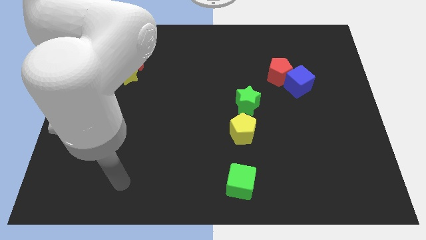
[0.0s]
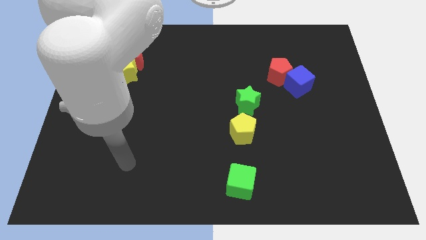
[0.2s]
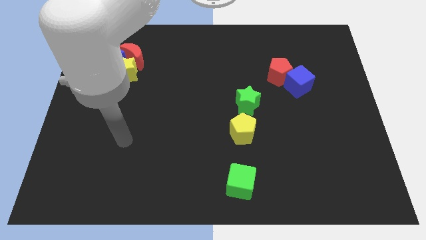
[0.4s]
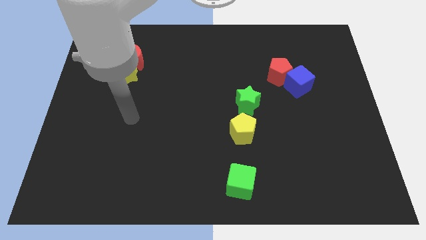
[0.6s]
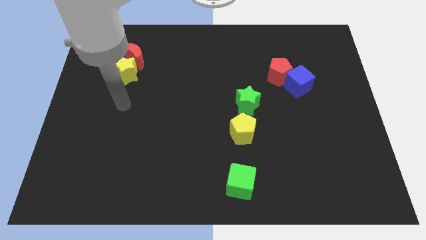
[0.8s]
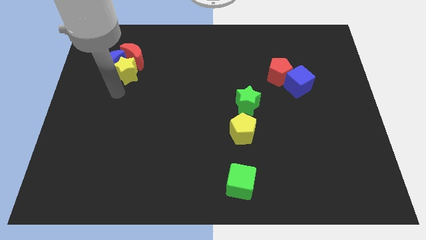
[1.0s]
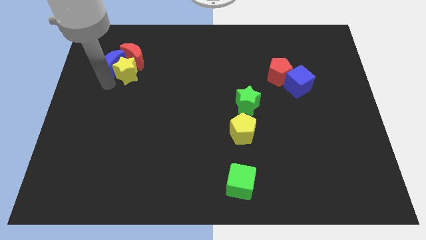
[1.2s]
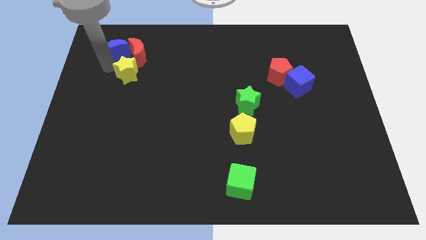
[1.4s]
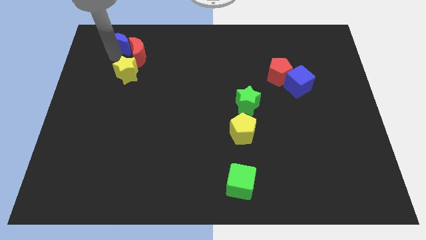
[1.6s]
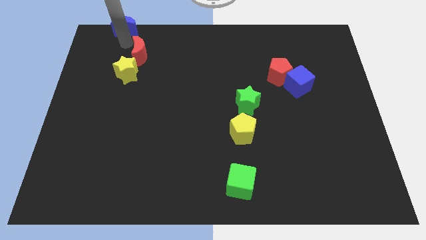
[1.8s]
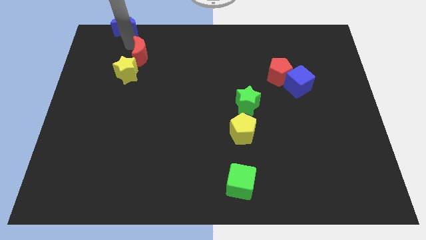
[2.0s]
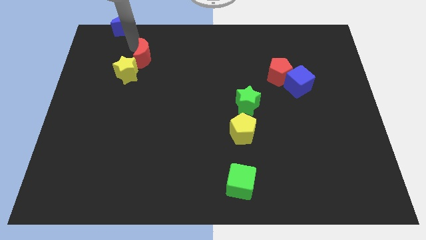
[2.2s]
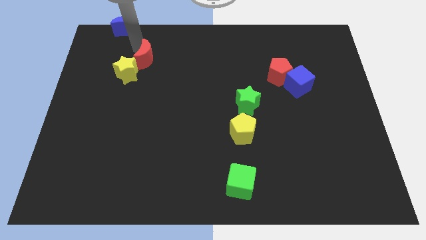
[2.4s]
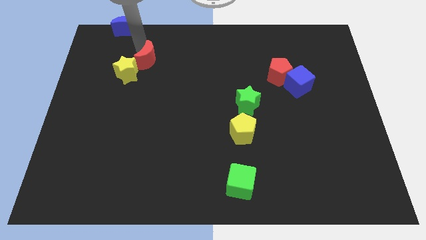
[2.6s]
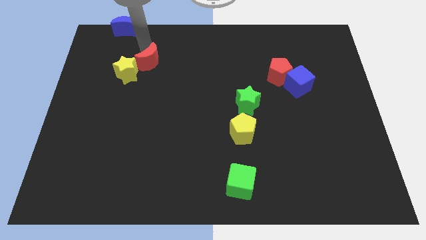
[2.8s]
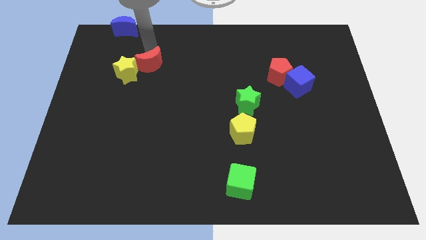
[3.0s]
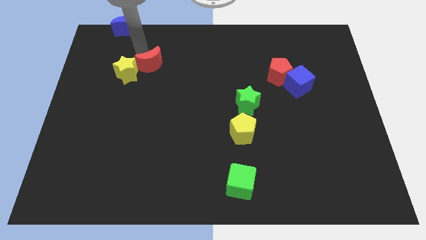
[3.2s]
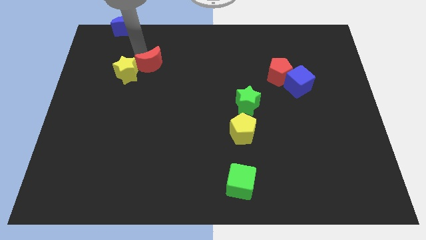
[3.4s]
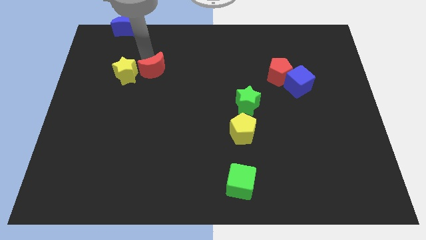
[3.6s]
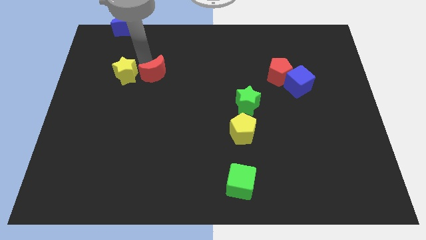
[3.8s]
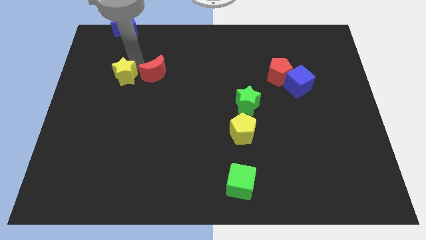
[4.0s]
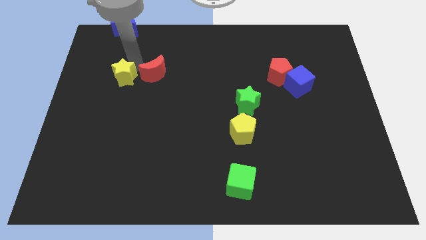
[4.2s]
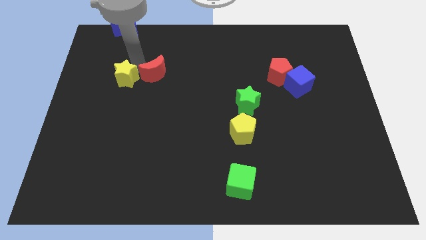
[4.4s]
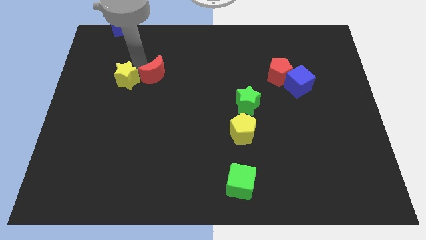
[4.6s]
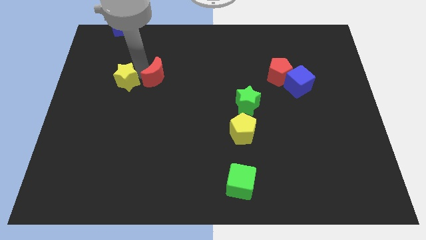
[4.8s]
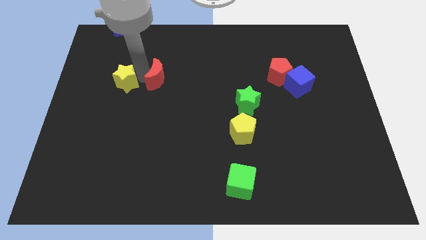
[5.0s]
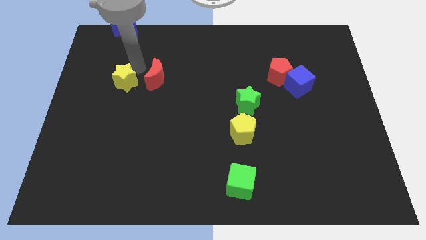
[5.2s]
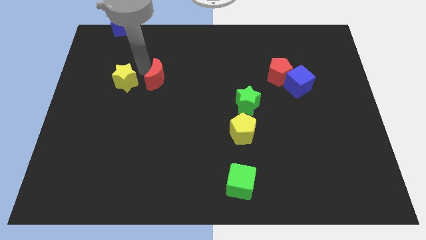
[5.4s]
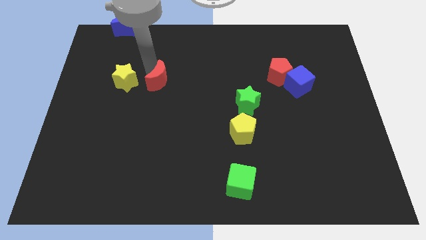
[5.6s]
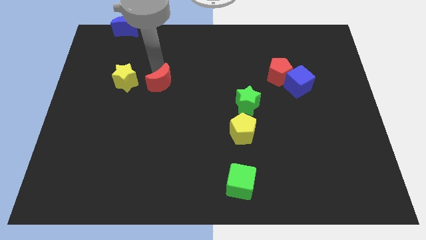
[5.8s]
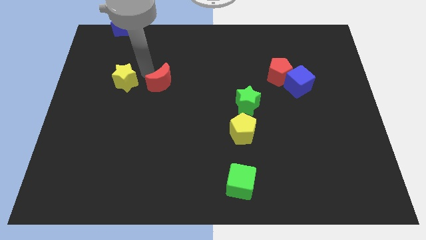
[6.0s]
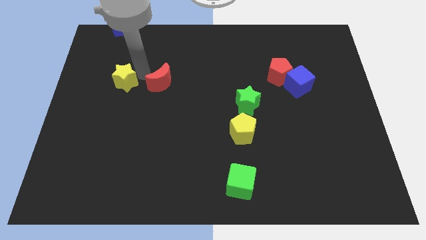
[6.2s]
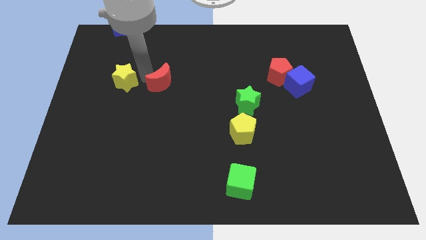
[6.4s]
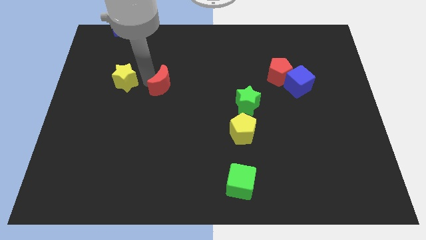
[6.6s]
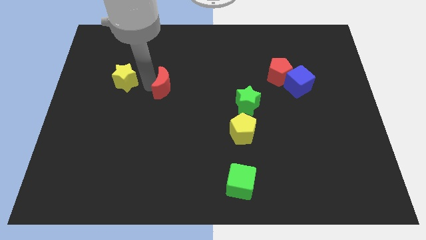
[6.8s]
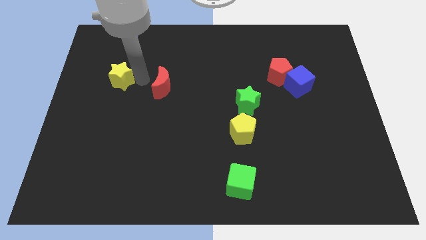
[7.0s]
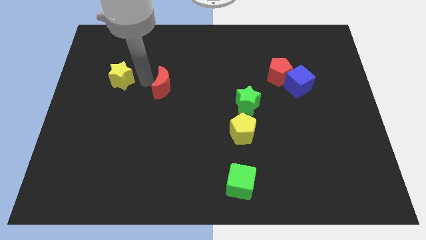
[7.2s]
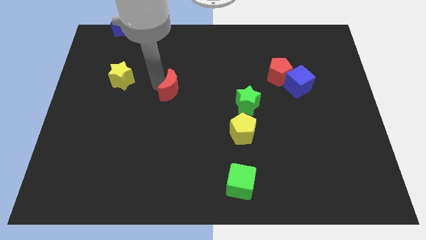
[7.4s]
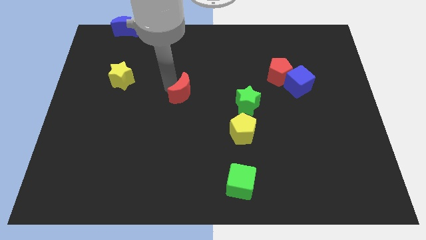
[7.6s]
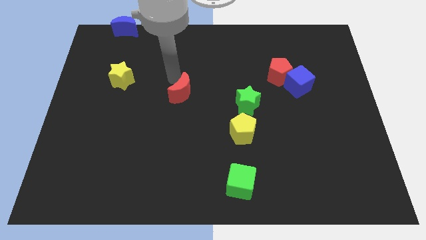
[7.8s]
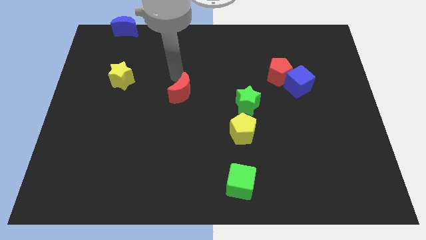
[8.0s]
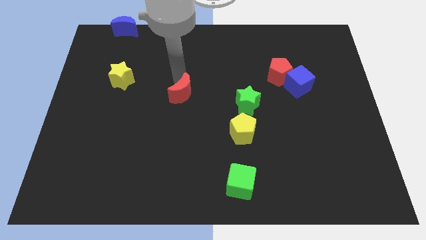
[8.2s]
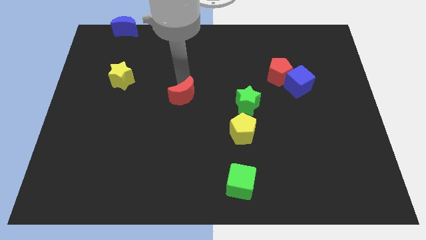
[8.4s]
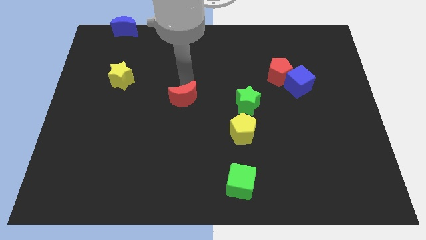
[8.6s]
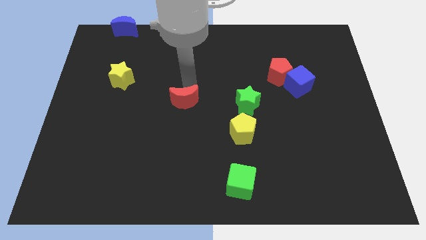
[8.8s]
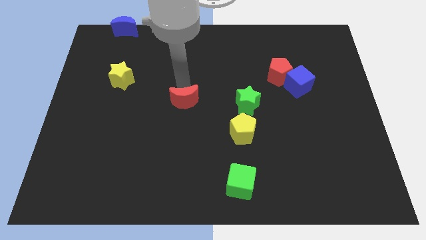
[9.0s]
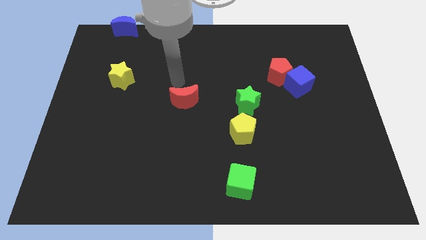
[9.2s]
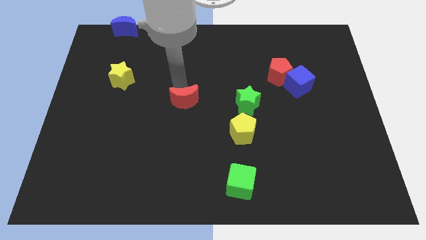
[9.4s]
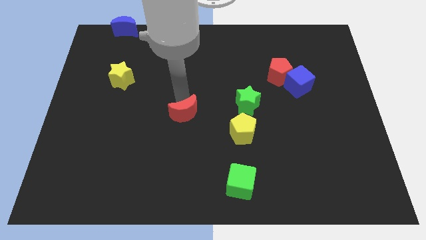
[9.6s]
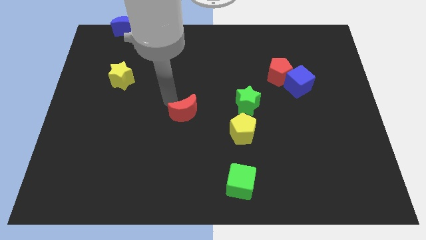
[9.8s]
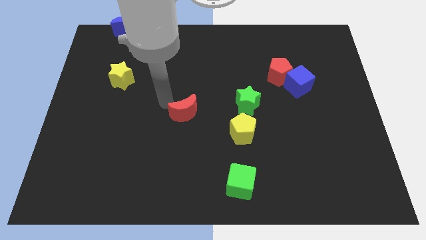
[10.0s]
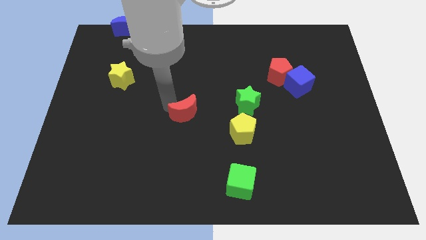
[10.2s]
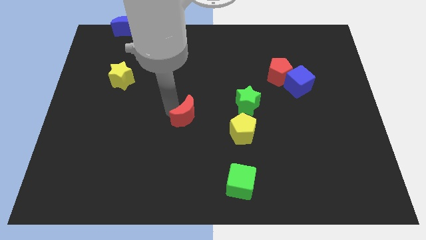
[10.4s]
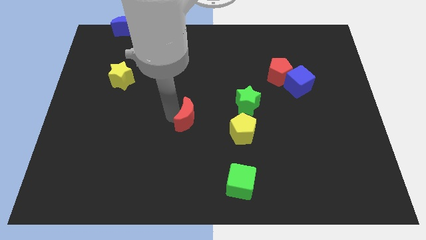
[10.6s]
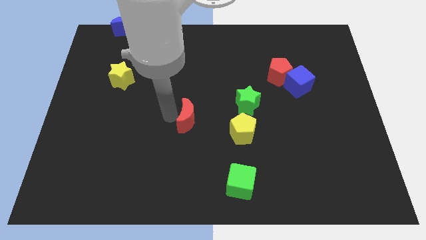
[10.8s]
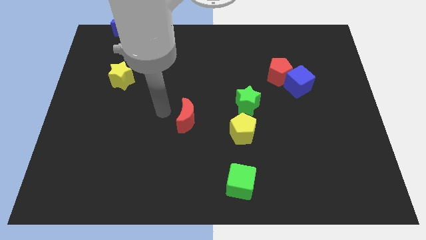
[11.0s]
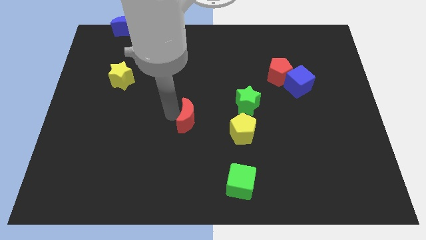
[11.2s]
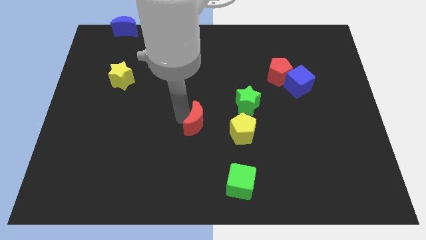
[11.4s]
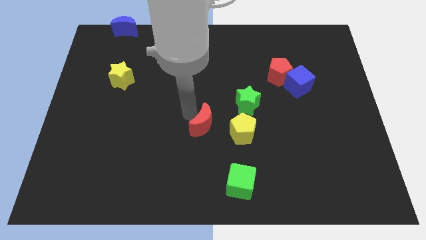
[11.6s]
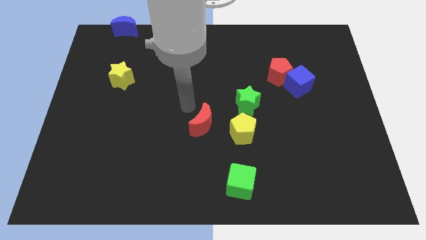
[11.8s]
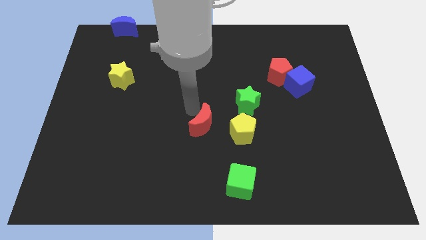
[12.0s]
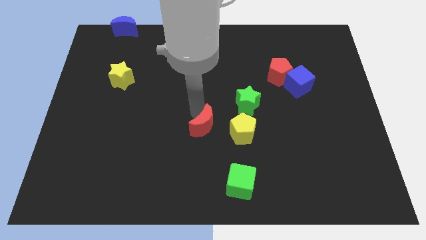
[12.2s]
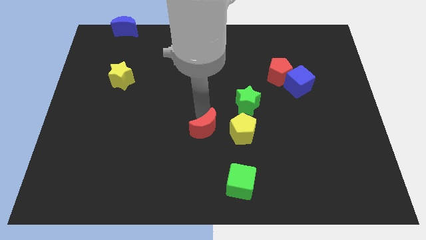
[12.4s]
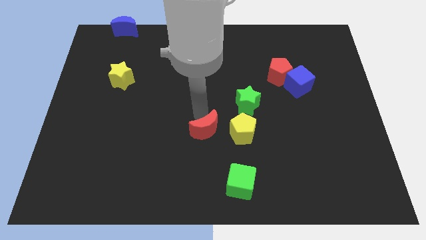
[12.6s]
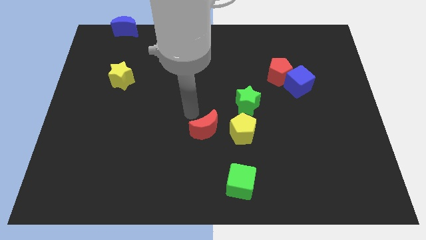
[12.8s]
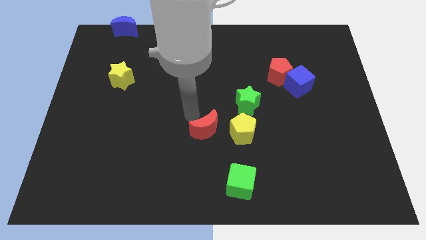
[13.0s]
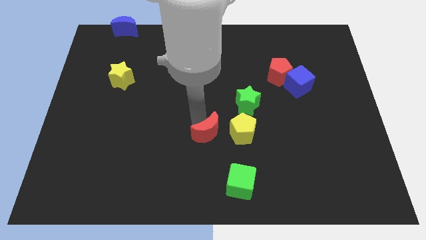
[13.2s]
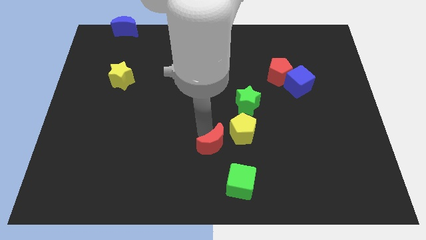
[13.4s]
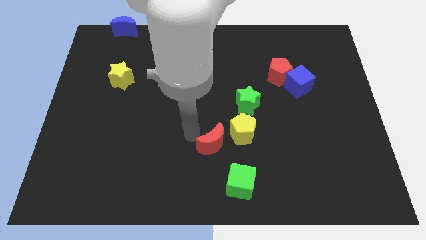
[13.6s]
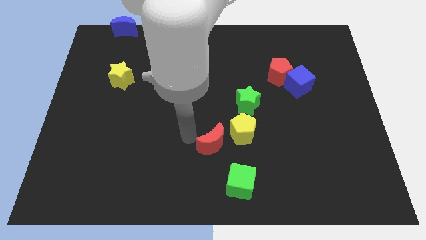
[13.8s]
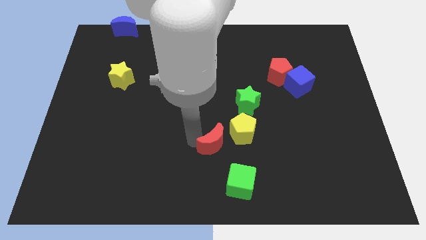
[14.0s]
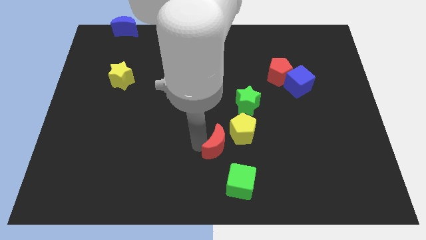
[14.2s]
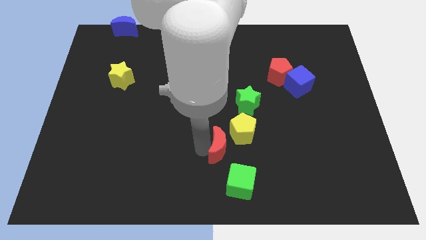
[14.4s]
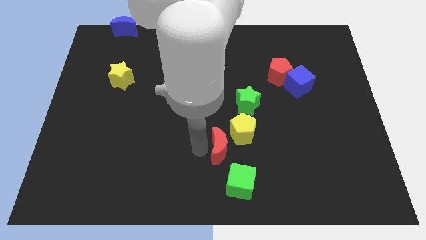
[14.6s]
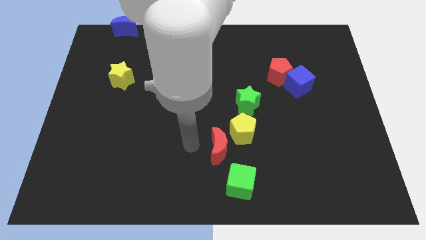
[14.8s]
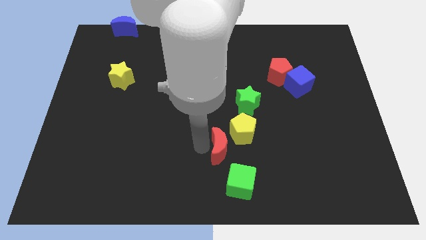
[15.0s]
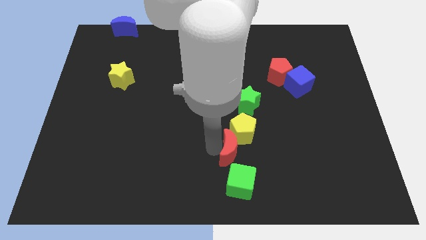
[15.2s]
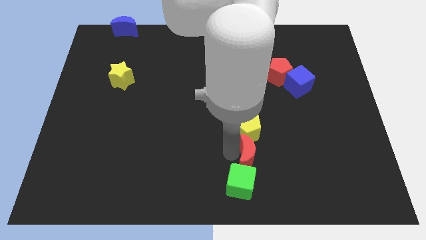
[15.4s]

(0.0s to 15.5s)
slide the red moon diagonally down and to the right of the yellow pentagon

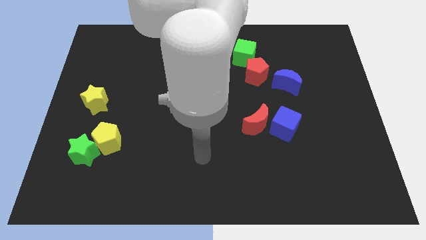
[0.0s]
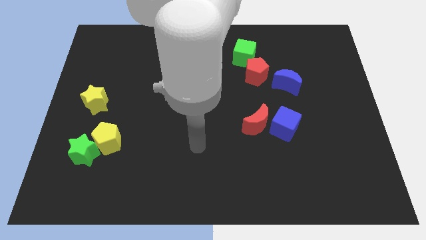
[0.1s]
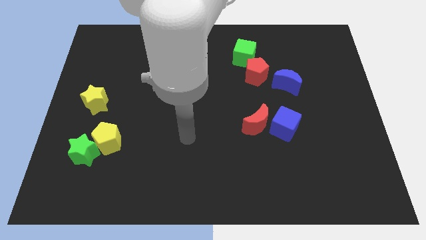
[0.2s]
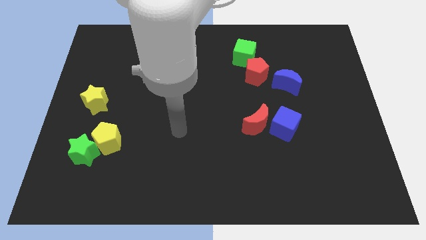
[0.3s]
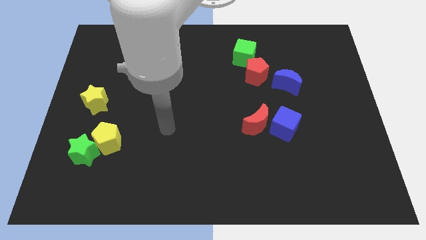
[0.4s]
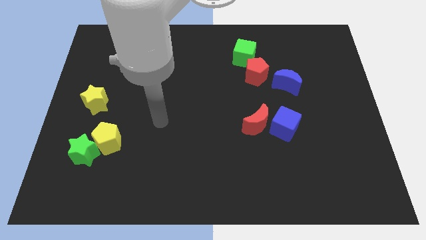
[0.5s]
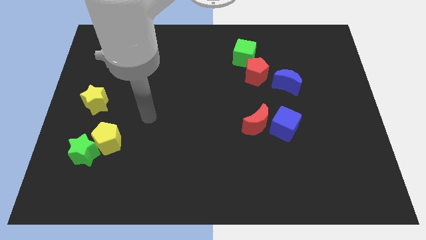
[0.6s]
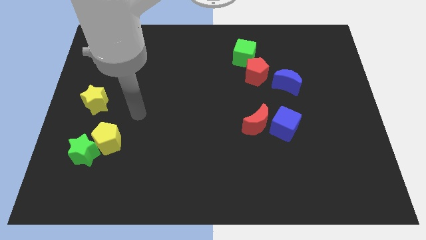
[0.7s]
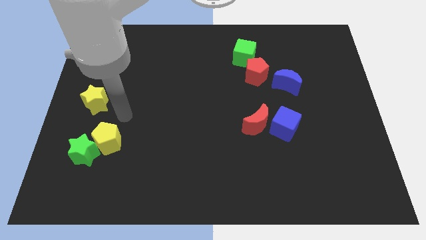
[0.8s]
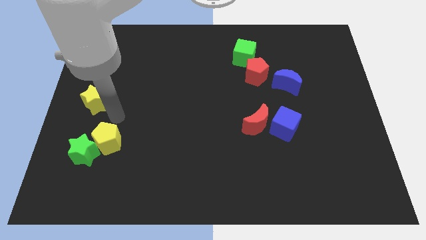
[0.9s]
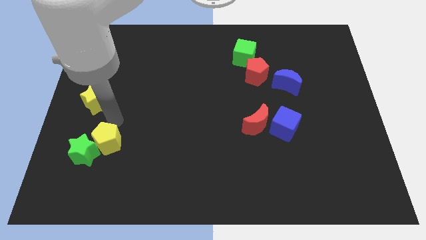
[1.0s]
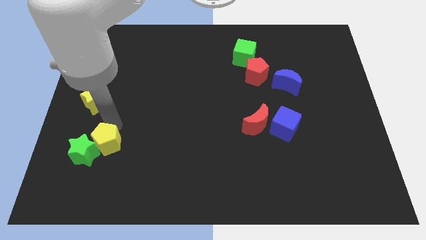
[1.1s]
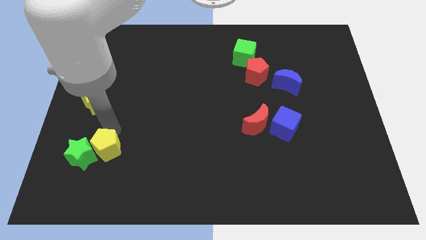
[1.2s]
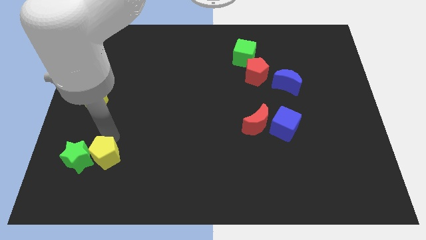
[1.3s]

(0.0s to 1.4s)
move the yellow pentagon diagonally down and to the right of the green star
